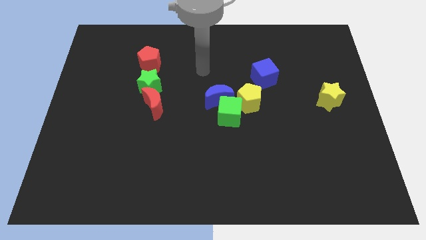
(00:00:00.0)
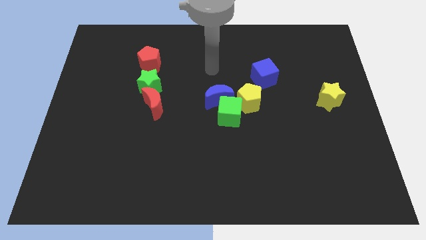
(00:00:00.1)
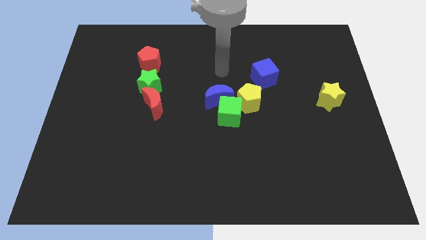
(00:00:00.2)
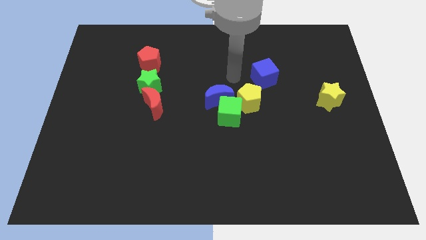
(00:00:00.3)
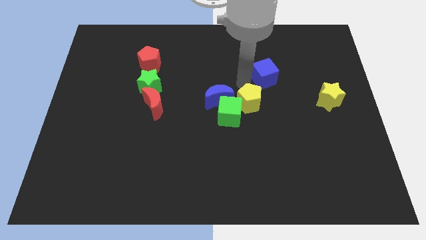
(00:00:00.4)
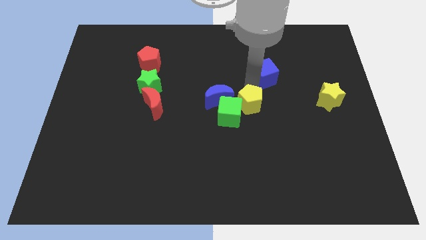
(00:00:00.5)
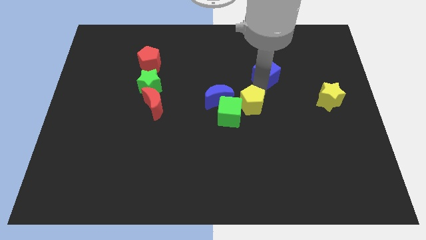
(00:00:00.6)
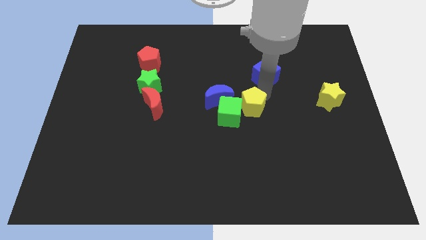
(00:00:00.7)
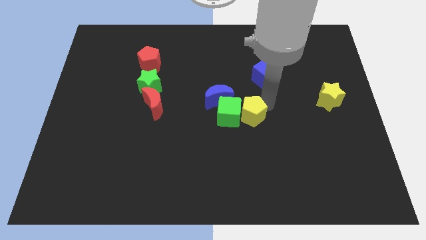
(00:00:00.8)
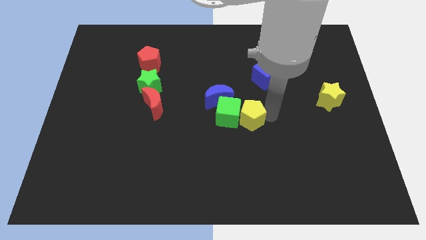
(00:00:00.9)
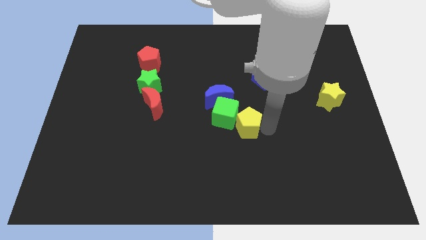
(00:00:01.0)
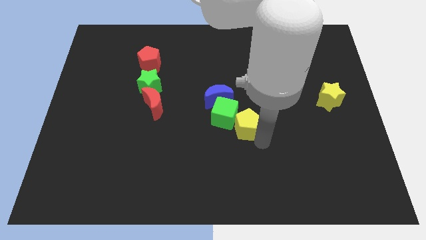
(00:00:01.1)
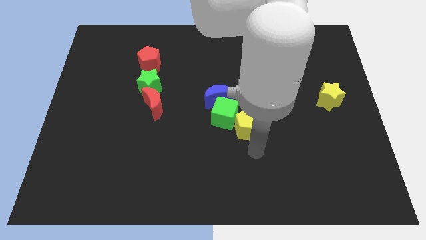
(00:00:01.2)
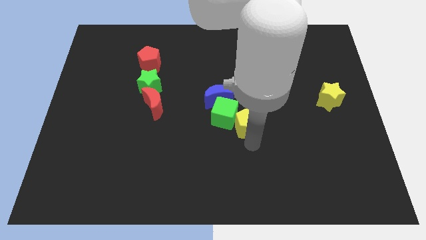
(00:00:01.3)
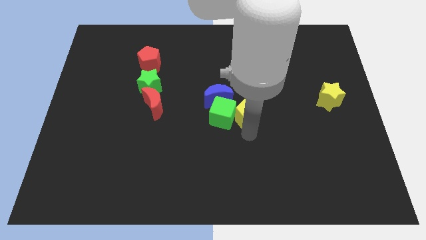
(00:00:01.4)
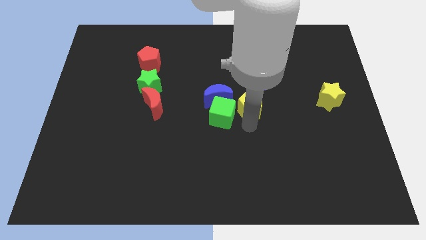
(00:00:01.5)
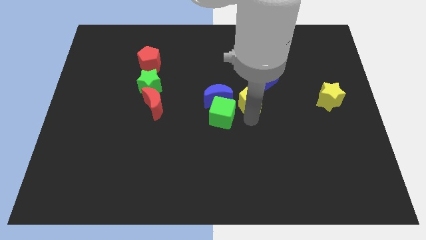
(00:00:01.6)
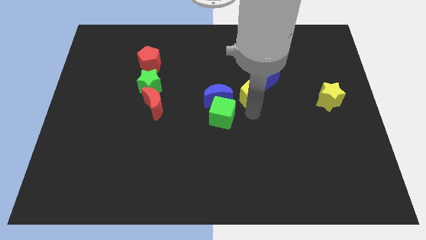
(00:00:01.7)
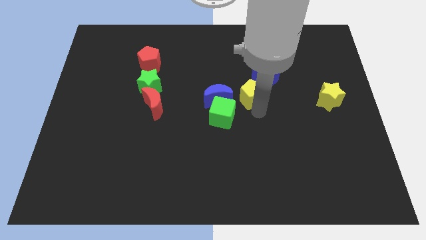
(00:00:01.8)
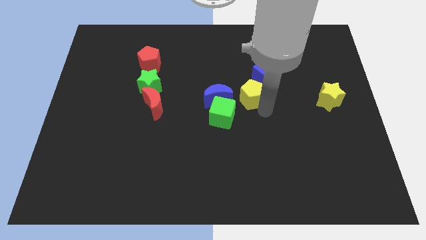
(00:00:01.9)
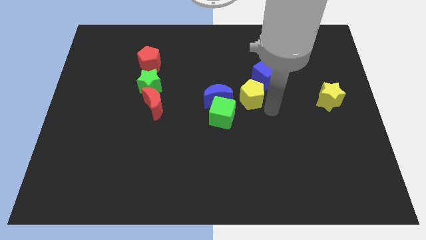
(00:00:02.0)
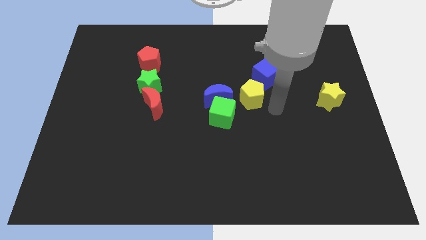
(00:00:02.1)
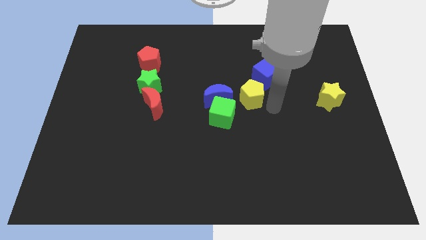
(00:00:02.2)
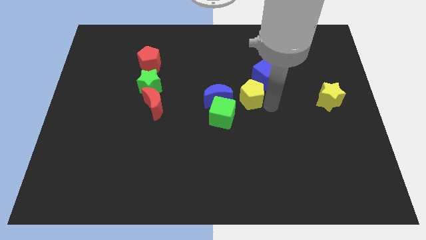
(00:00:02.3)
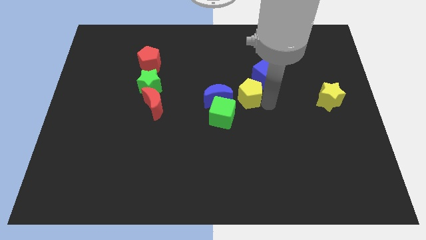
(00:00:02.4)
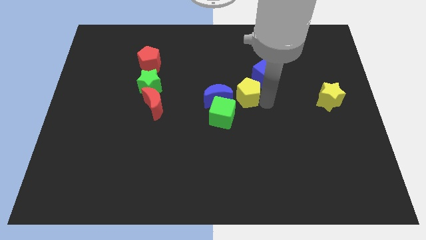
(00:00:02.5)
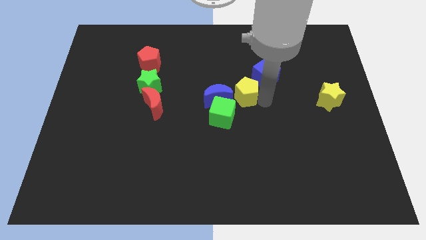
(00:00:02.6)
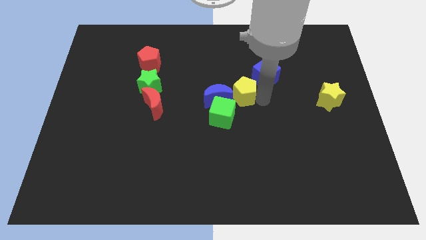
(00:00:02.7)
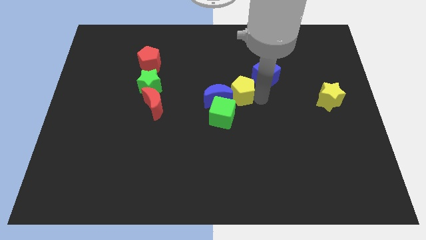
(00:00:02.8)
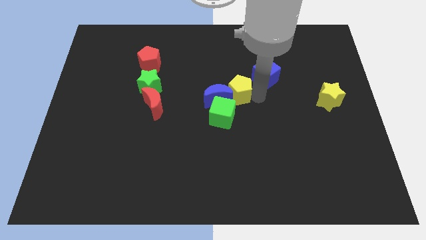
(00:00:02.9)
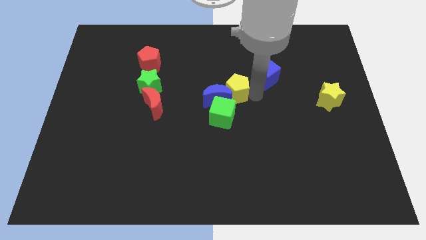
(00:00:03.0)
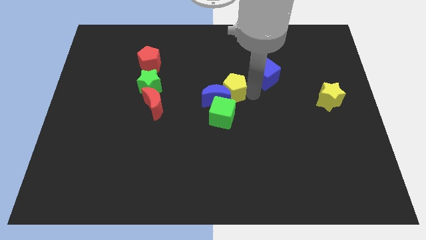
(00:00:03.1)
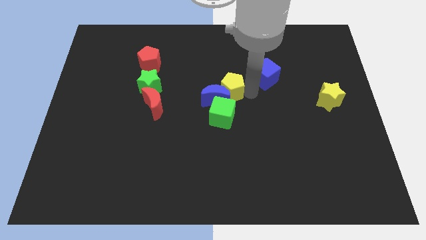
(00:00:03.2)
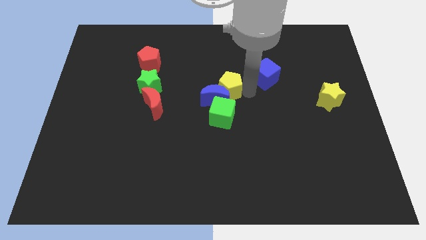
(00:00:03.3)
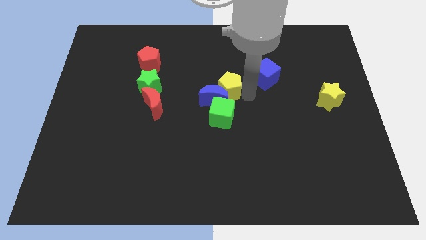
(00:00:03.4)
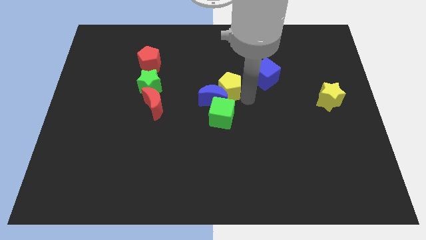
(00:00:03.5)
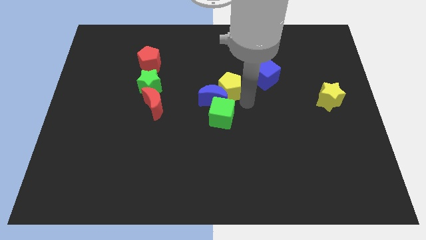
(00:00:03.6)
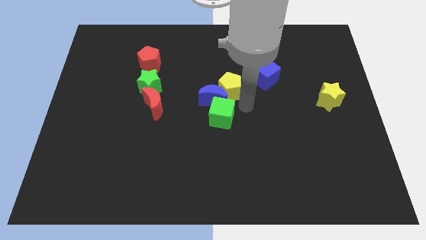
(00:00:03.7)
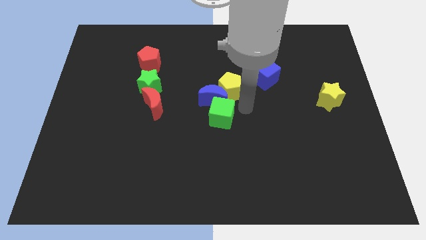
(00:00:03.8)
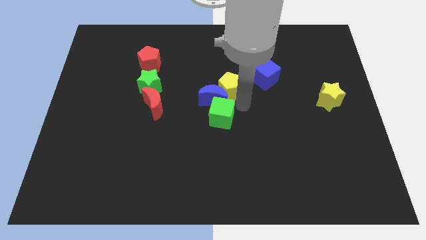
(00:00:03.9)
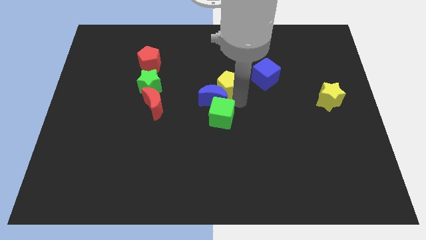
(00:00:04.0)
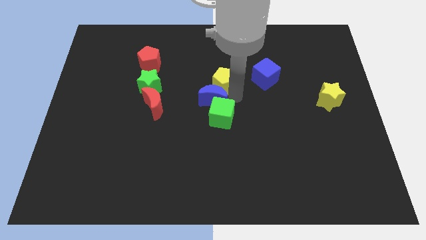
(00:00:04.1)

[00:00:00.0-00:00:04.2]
push the yellow pentagon up and to the left diagonally somewhat

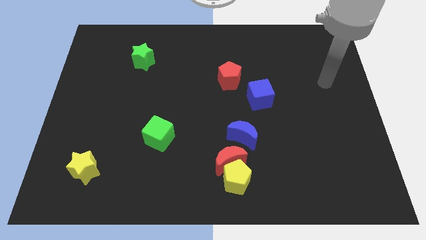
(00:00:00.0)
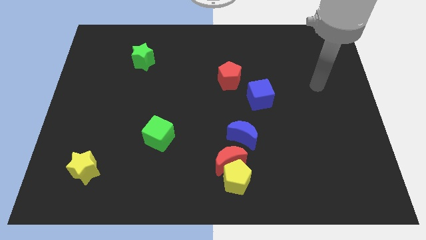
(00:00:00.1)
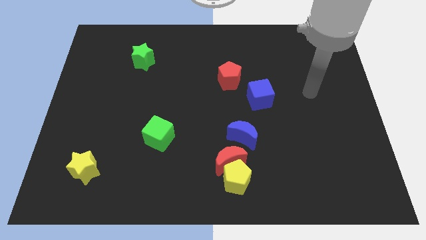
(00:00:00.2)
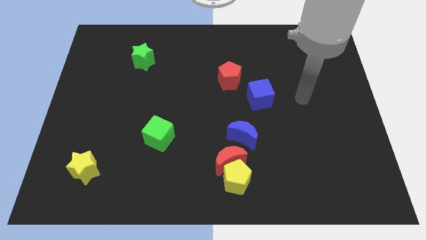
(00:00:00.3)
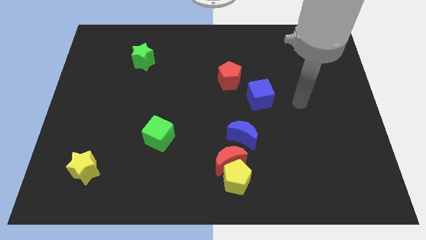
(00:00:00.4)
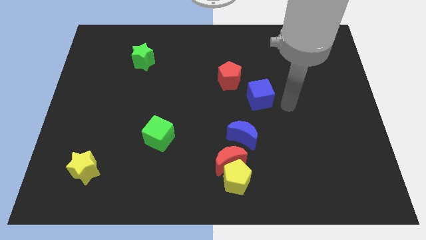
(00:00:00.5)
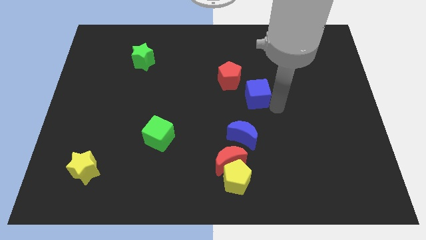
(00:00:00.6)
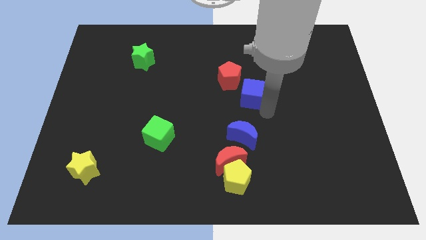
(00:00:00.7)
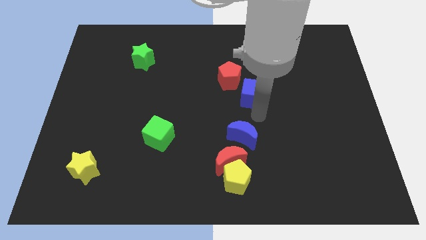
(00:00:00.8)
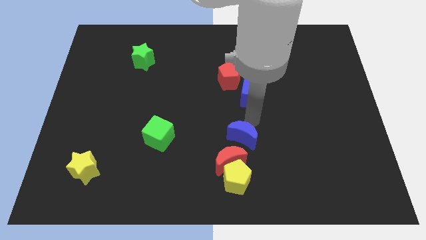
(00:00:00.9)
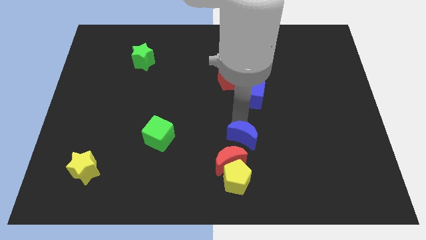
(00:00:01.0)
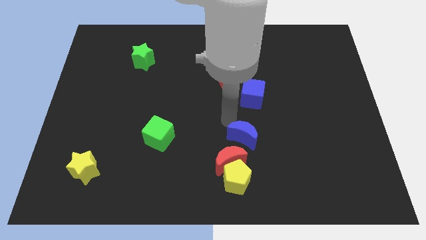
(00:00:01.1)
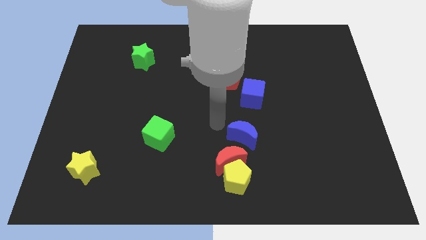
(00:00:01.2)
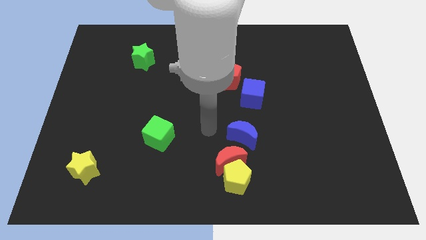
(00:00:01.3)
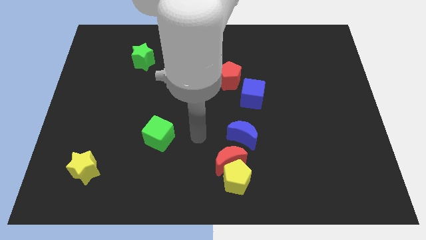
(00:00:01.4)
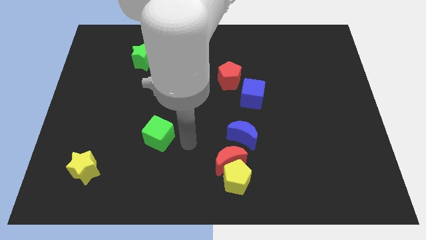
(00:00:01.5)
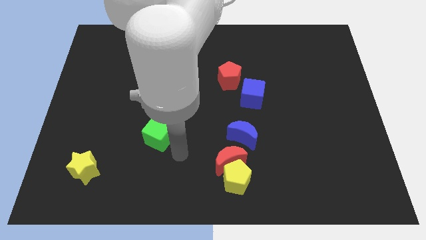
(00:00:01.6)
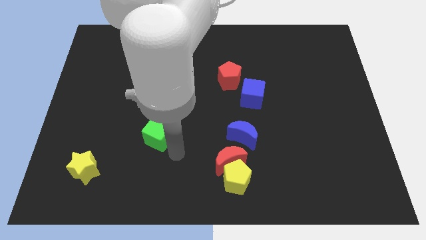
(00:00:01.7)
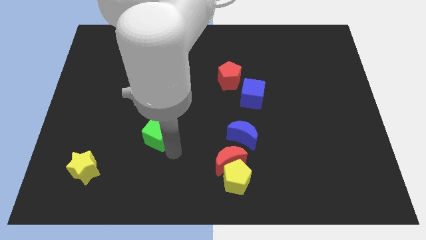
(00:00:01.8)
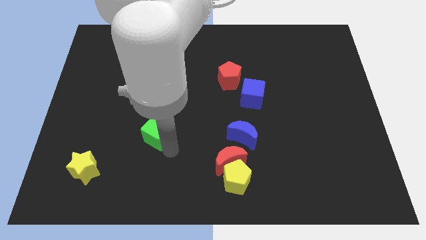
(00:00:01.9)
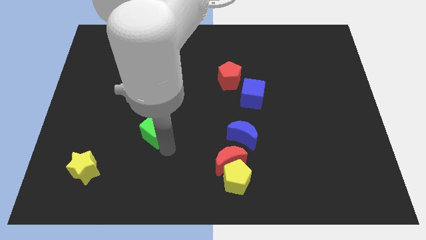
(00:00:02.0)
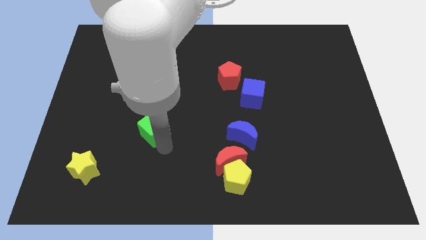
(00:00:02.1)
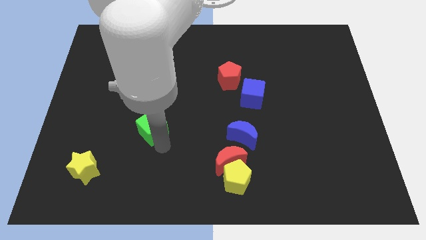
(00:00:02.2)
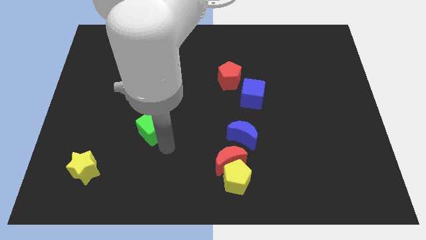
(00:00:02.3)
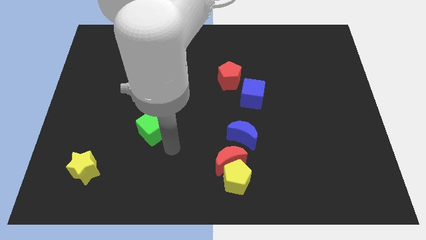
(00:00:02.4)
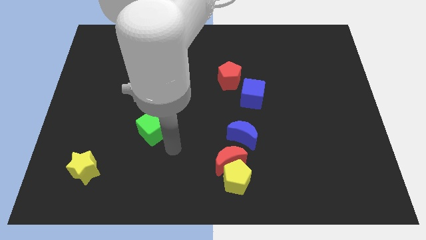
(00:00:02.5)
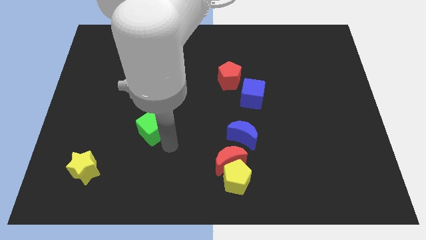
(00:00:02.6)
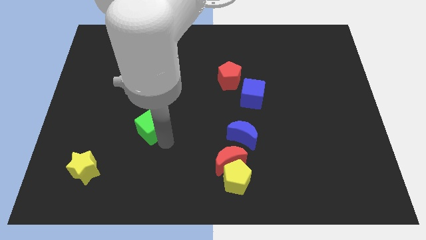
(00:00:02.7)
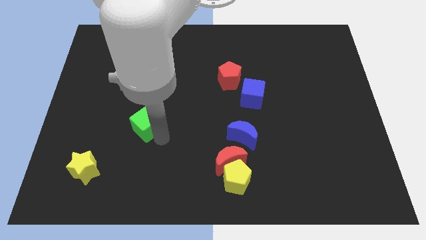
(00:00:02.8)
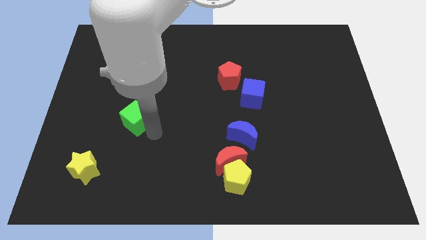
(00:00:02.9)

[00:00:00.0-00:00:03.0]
slightly slide the green cube diagonally up and to the left

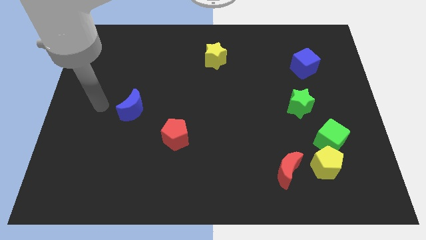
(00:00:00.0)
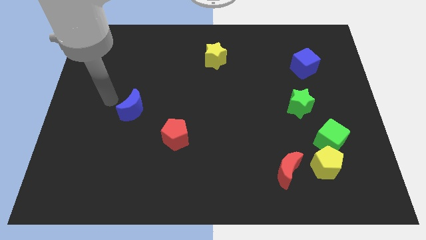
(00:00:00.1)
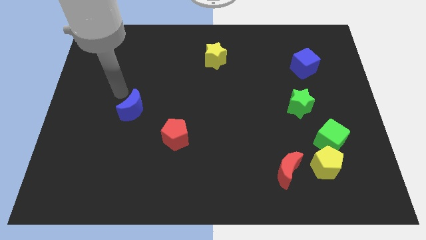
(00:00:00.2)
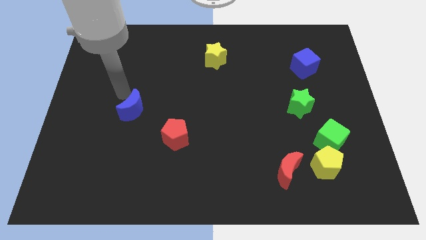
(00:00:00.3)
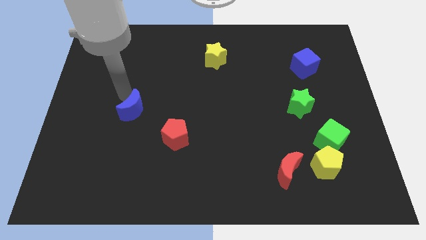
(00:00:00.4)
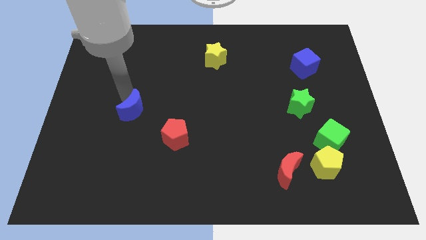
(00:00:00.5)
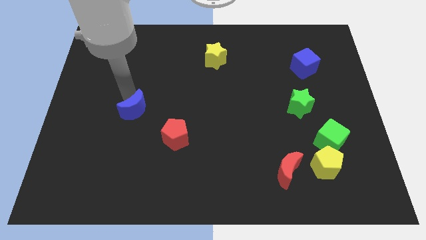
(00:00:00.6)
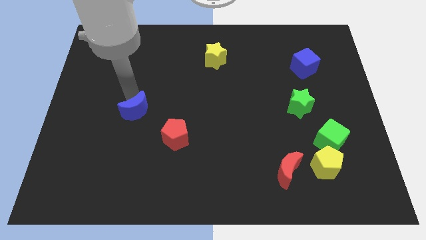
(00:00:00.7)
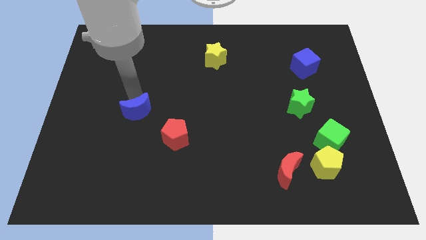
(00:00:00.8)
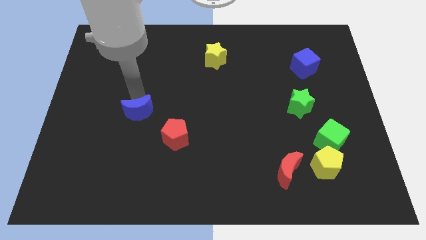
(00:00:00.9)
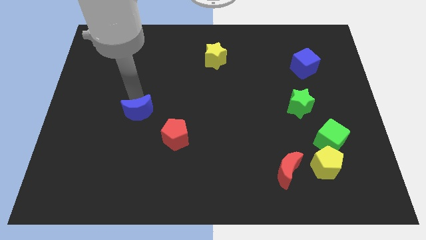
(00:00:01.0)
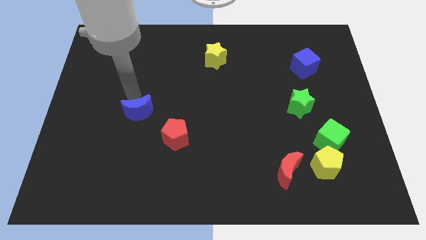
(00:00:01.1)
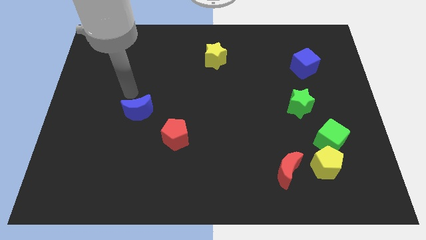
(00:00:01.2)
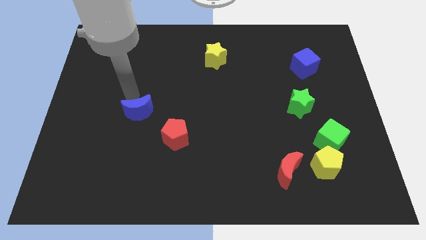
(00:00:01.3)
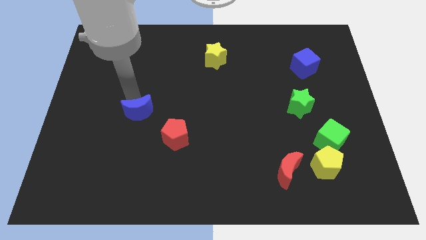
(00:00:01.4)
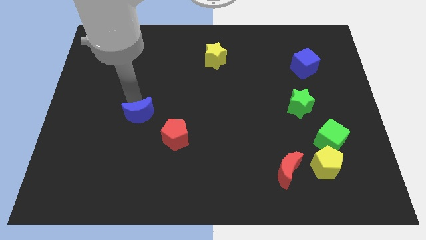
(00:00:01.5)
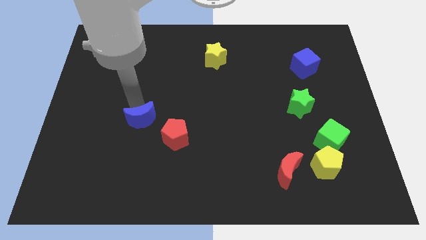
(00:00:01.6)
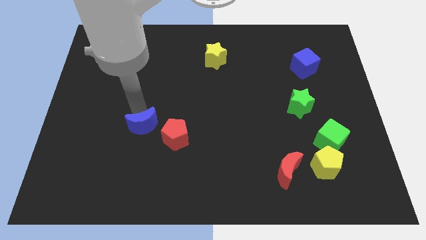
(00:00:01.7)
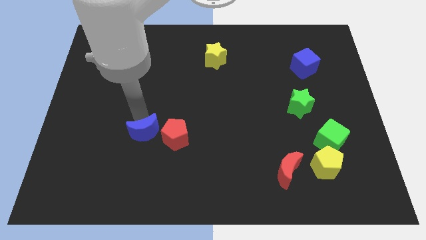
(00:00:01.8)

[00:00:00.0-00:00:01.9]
slightly slide the blue moon diagonally down and right
